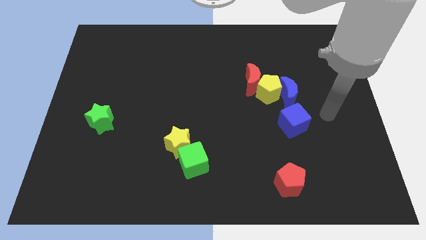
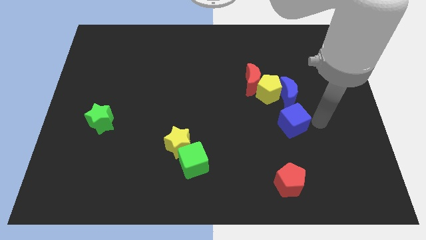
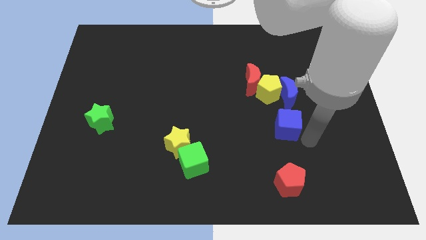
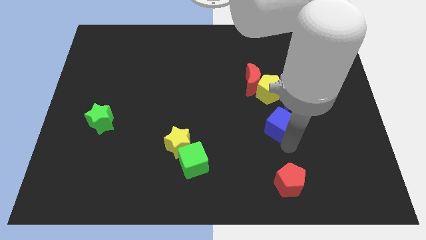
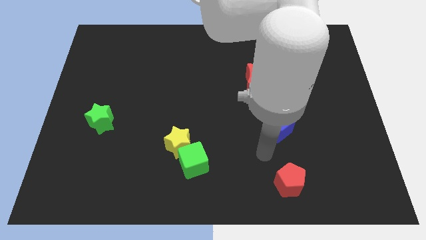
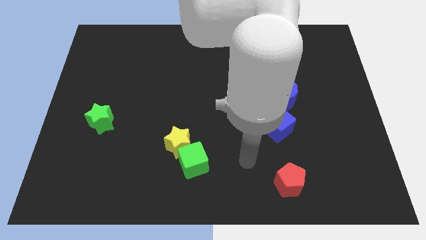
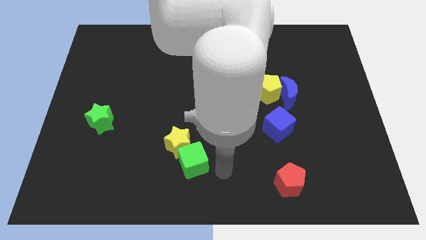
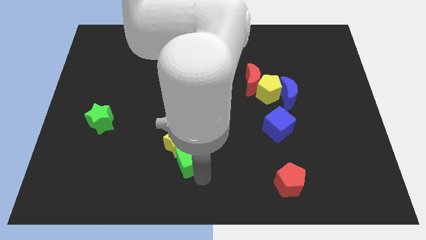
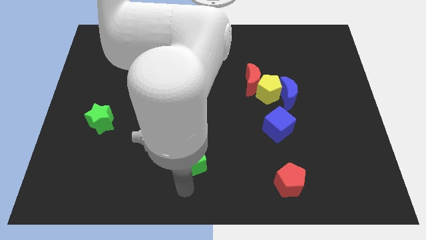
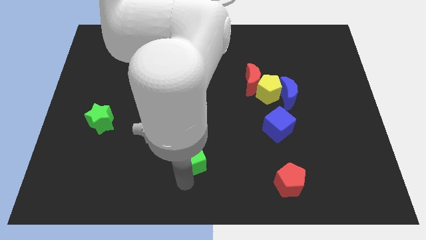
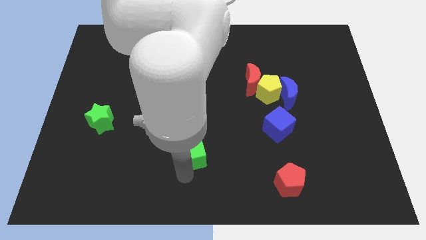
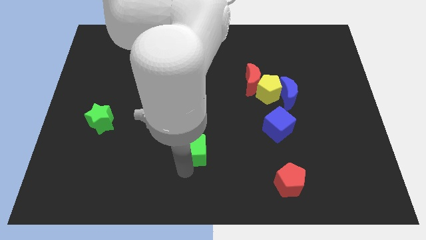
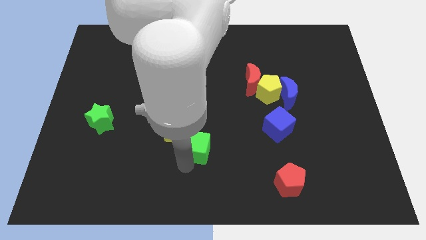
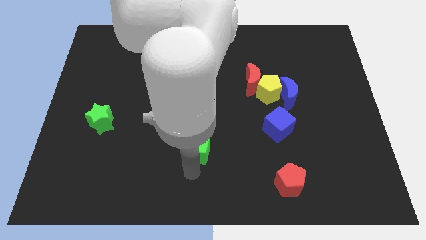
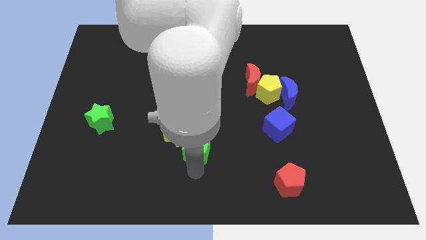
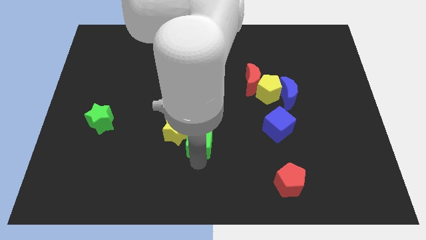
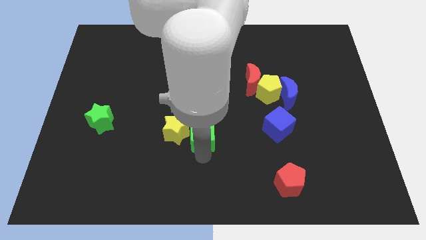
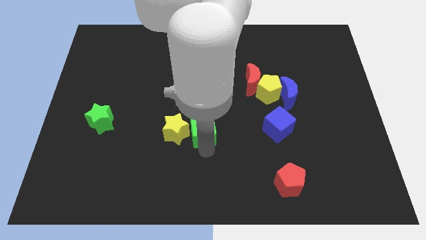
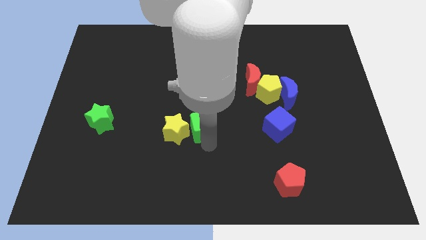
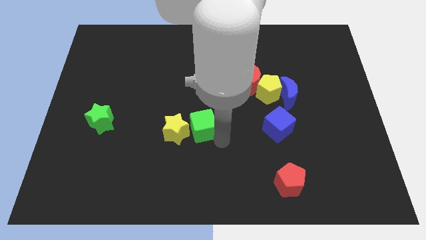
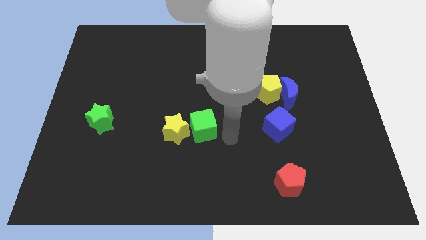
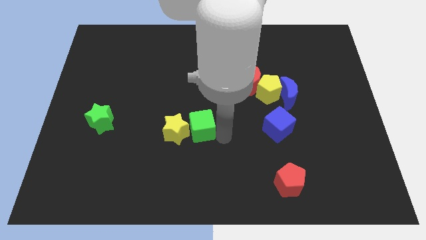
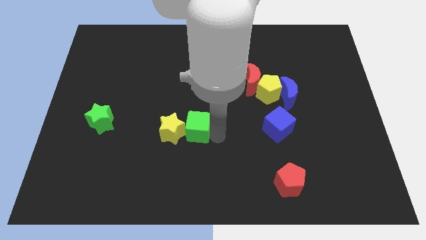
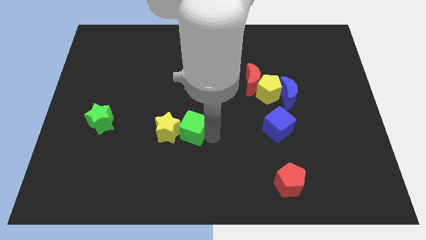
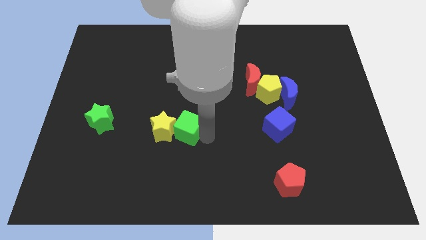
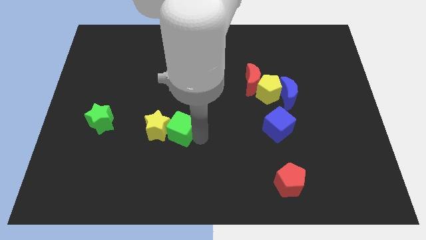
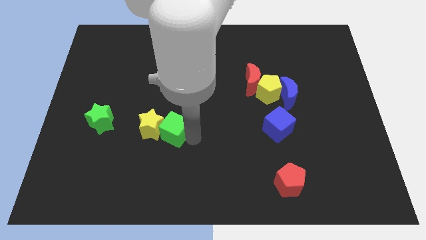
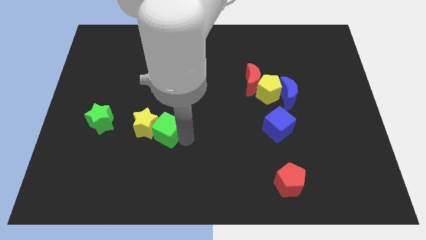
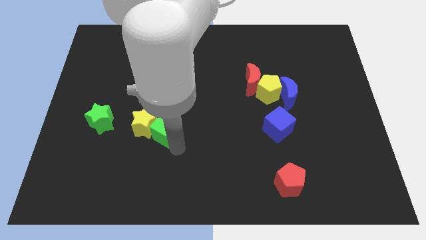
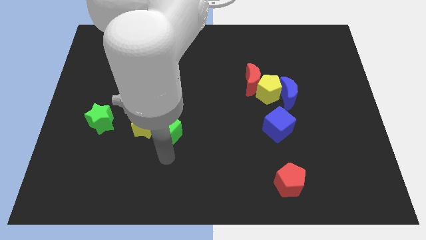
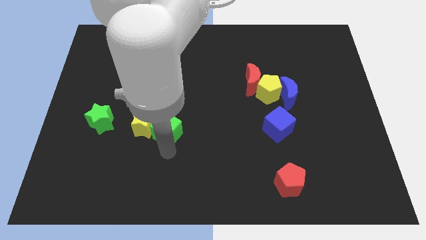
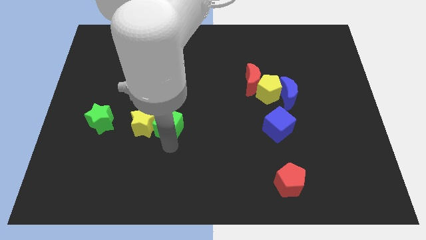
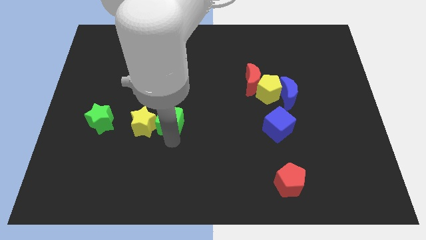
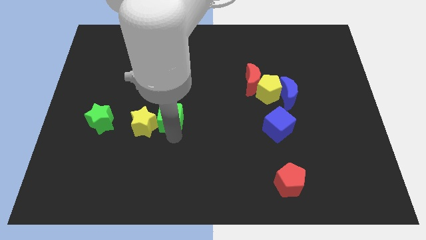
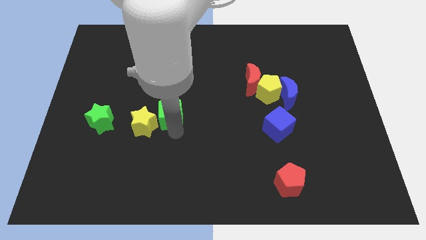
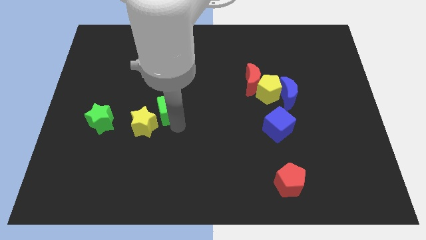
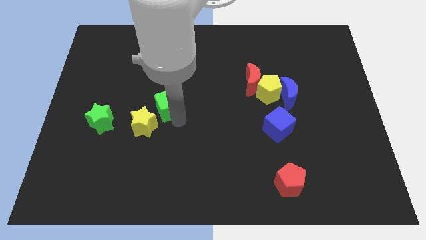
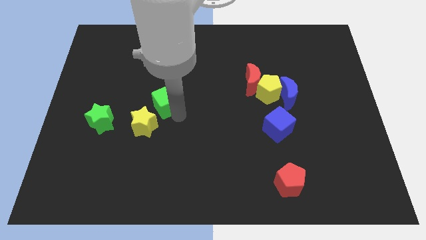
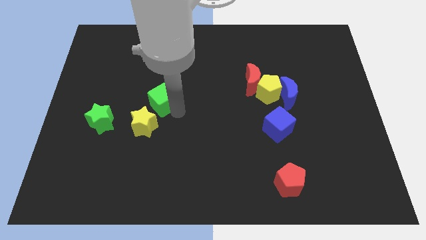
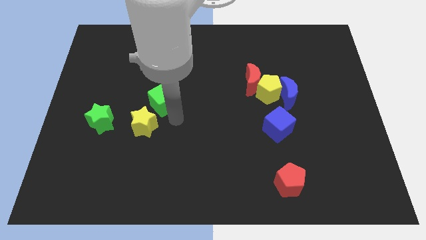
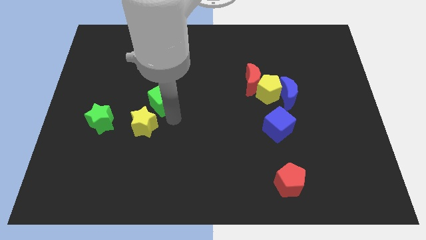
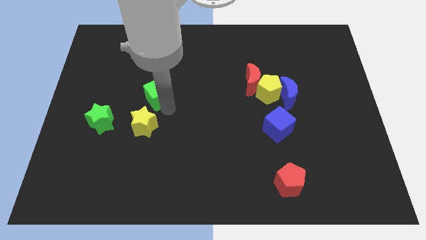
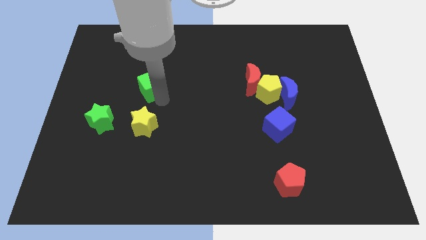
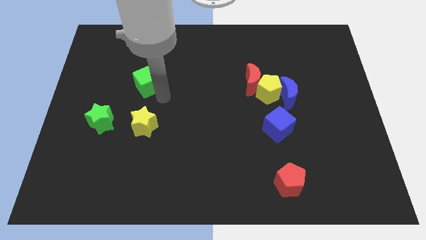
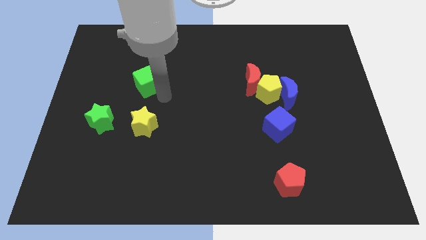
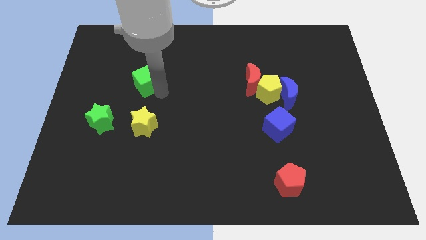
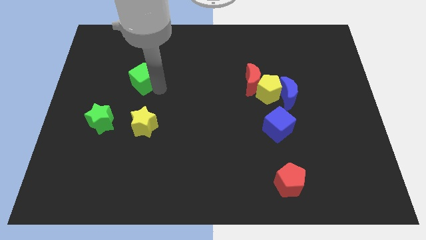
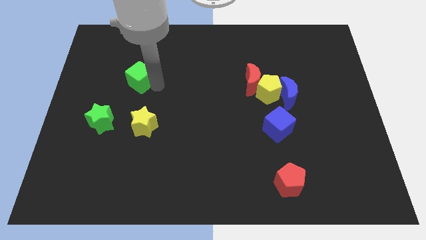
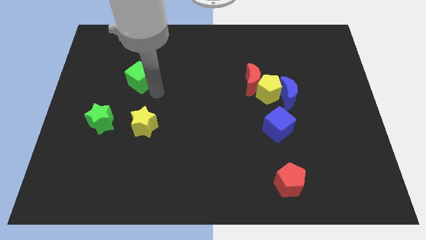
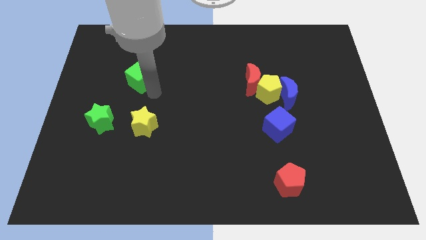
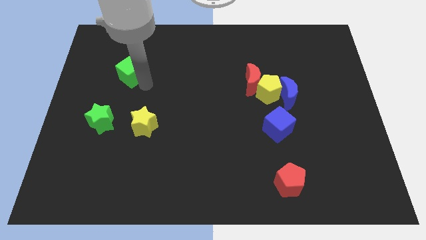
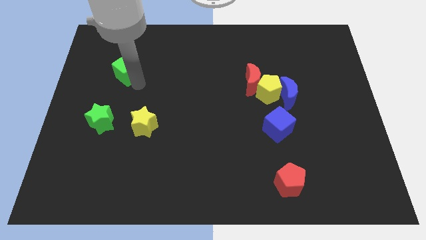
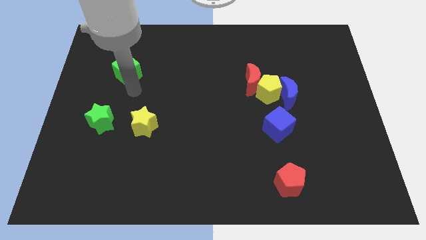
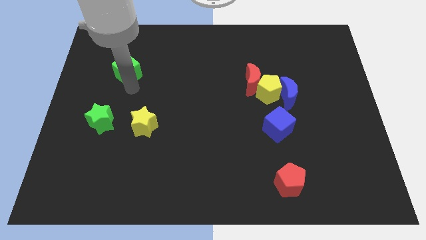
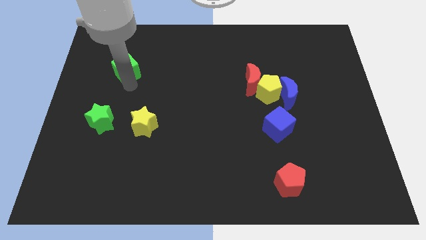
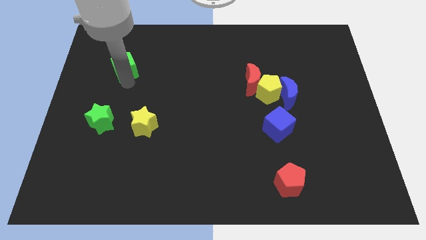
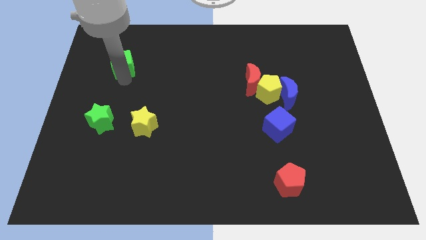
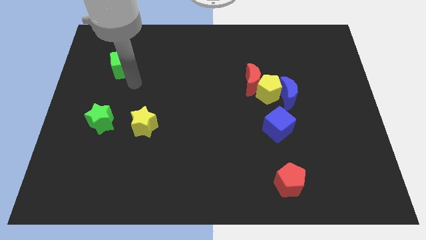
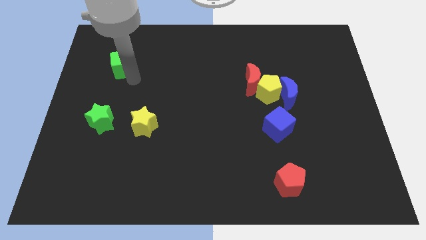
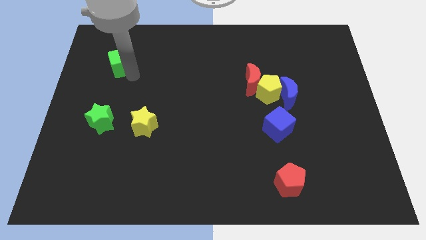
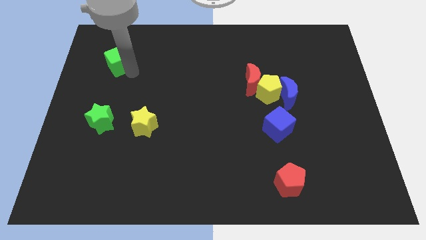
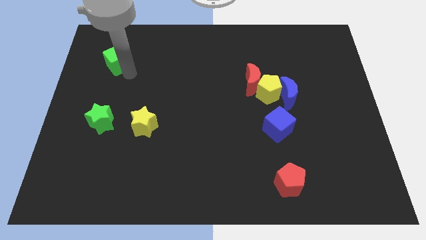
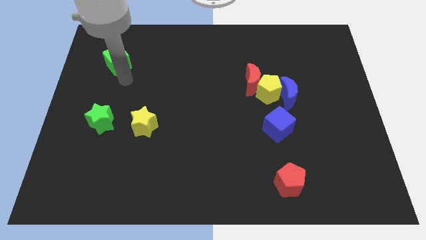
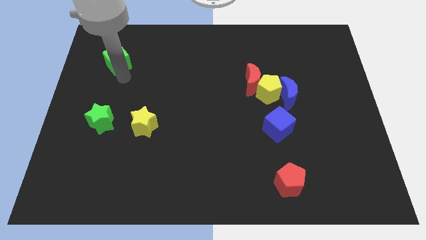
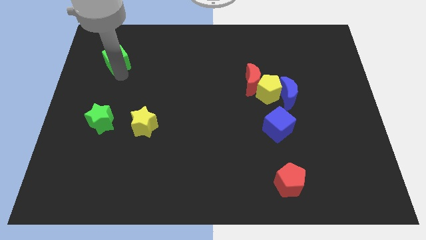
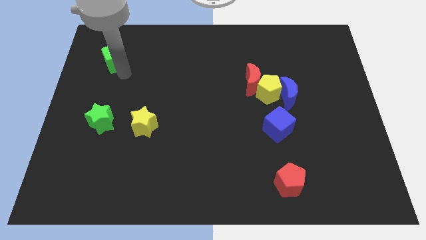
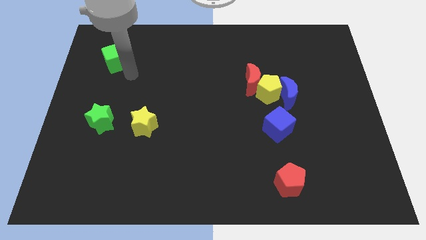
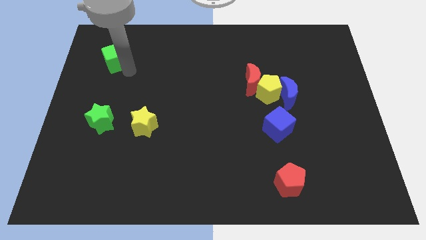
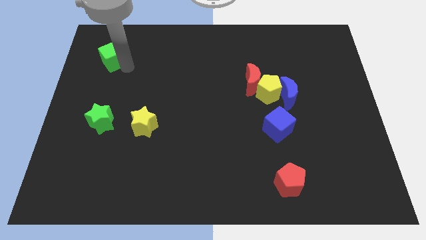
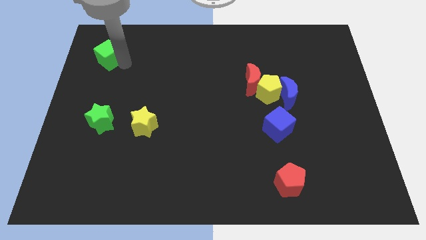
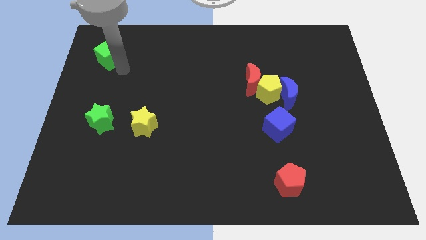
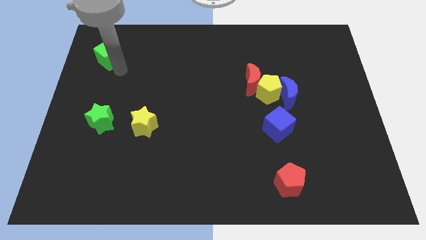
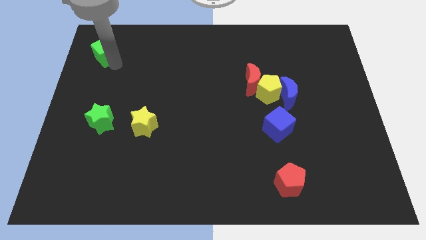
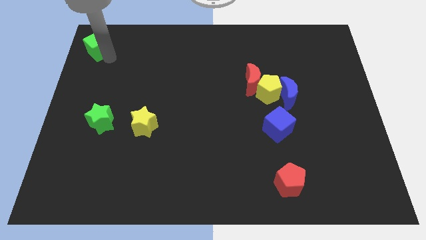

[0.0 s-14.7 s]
push the green cube to the upper left corner
